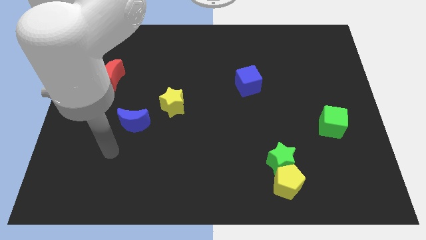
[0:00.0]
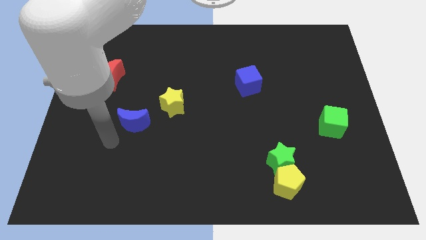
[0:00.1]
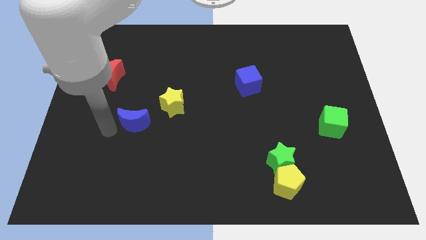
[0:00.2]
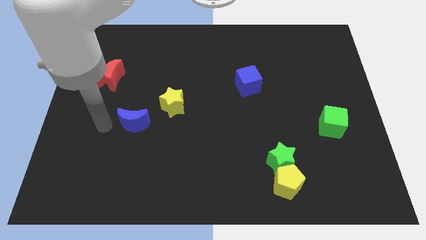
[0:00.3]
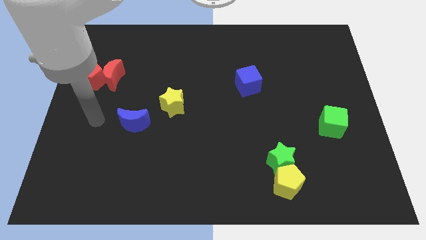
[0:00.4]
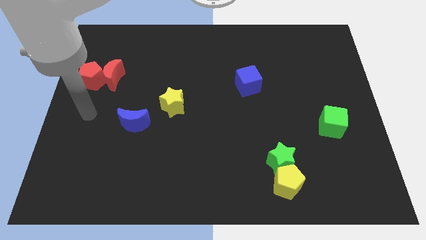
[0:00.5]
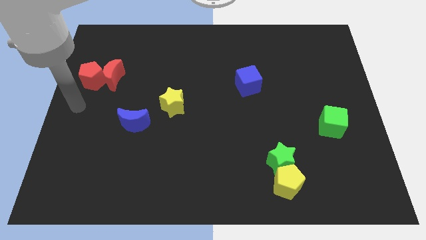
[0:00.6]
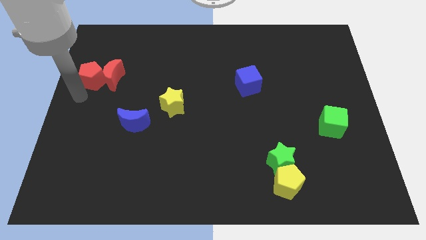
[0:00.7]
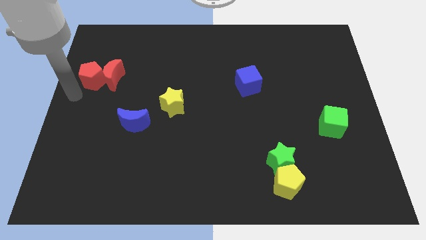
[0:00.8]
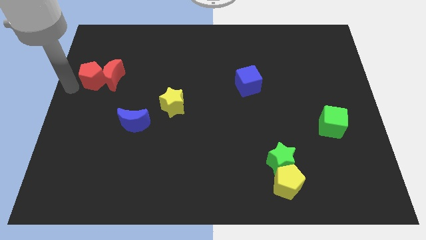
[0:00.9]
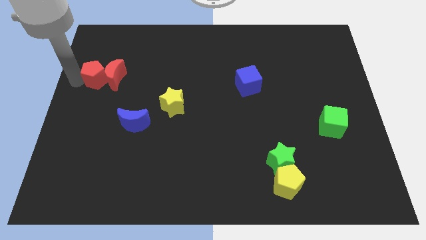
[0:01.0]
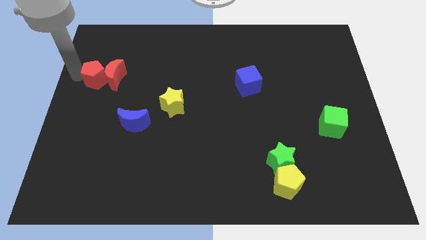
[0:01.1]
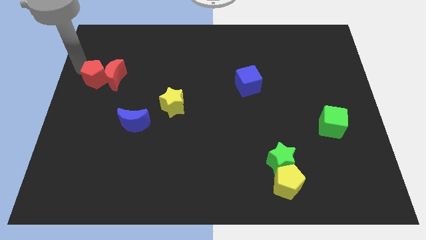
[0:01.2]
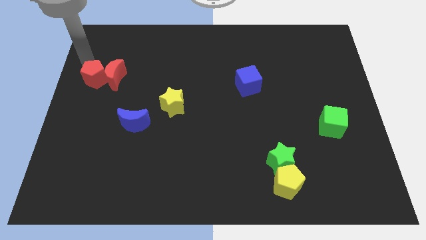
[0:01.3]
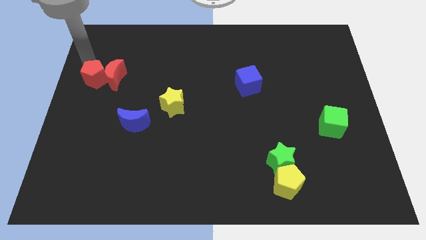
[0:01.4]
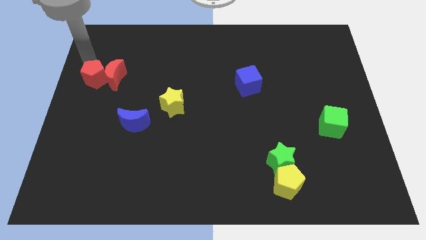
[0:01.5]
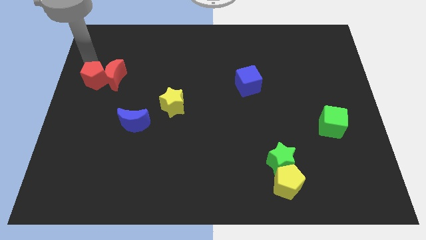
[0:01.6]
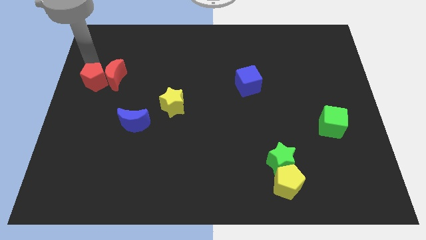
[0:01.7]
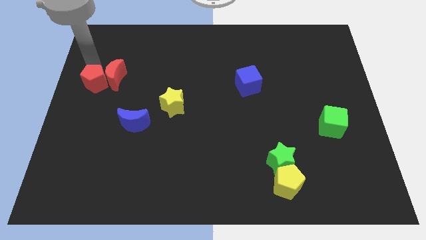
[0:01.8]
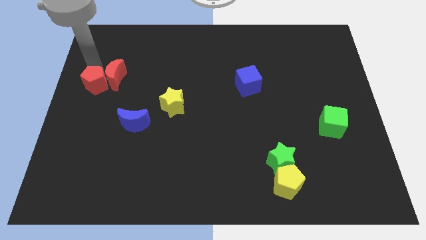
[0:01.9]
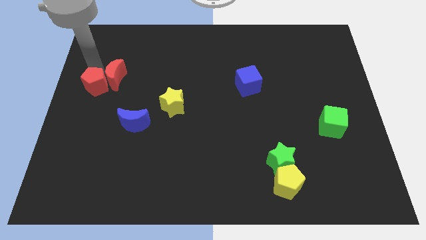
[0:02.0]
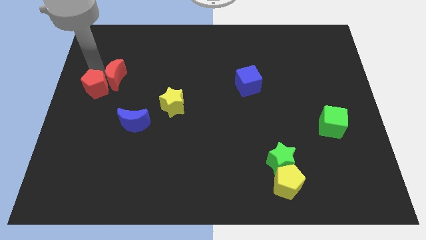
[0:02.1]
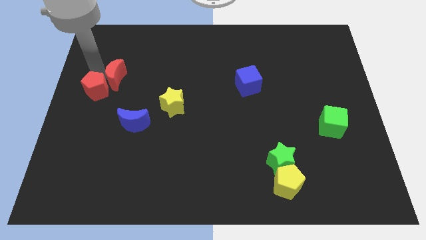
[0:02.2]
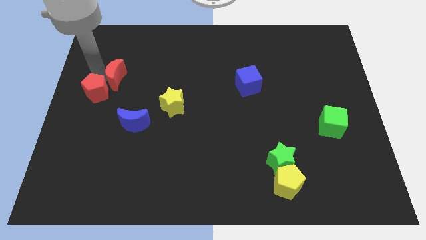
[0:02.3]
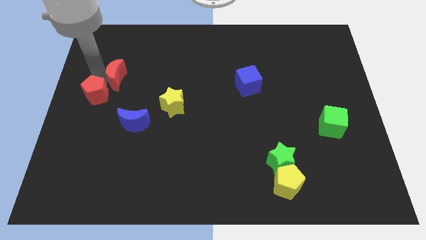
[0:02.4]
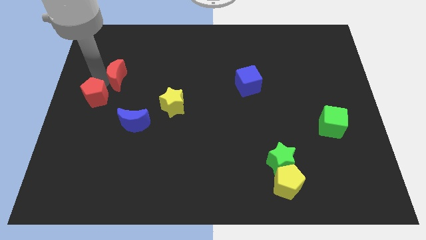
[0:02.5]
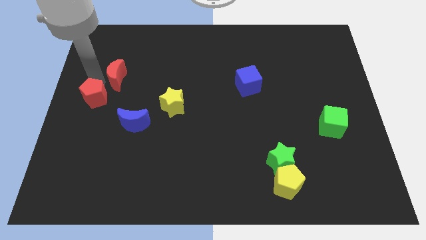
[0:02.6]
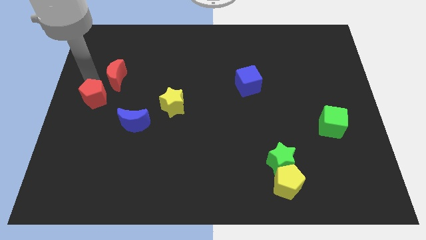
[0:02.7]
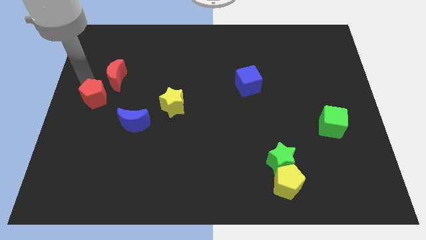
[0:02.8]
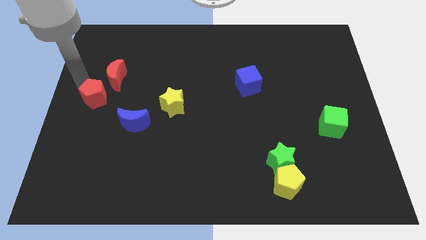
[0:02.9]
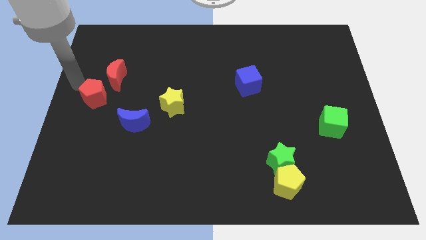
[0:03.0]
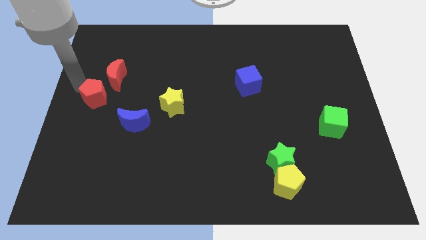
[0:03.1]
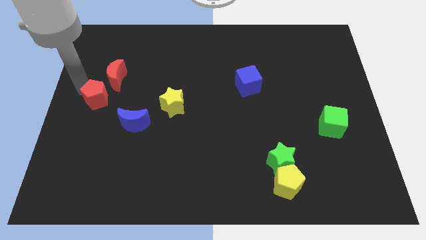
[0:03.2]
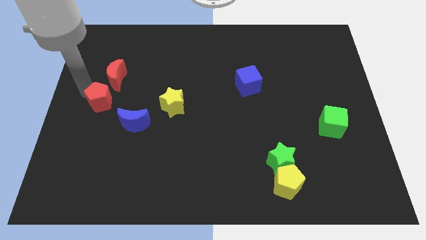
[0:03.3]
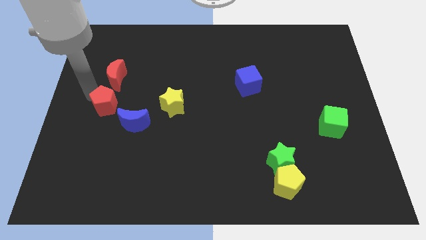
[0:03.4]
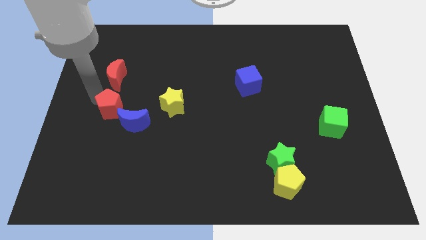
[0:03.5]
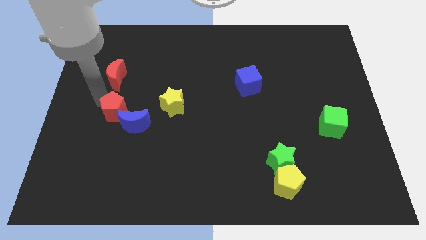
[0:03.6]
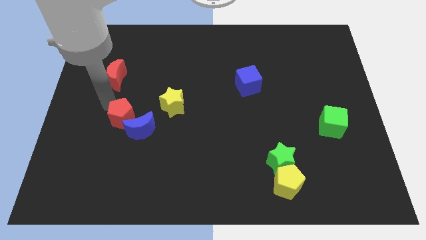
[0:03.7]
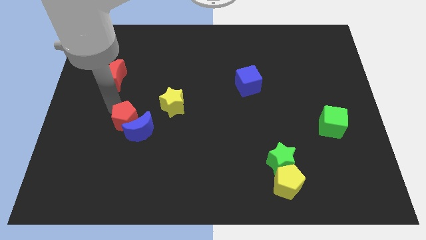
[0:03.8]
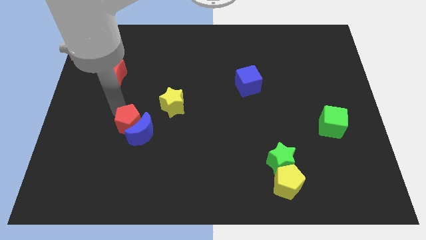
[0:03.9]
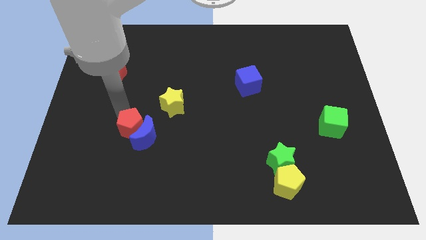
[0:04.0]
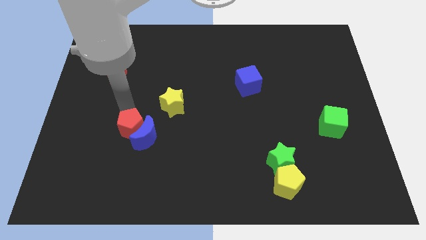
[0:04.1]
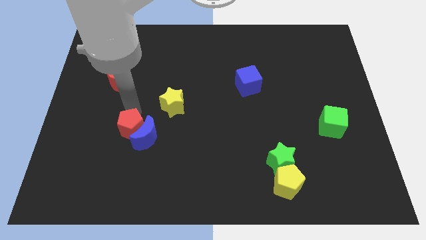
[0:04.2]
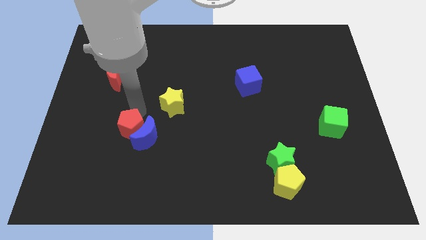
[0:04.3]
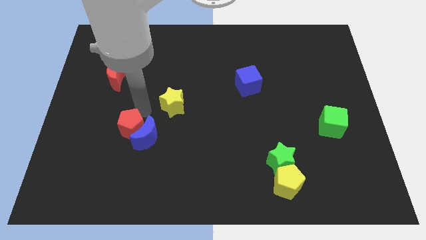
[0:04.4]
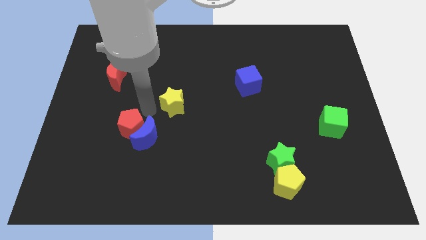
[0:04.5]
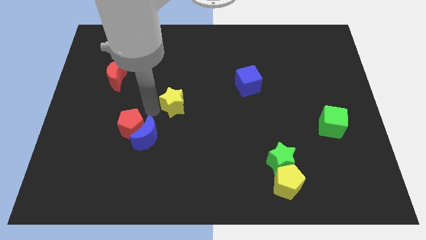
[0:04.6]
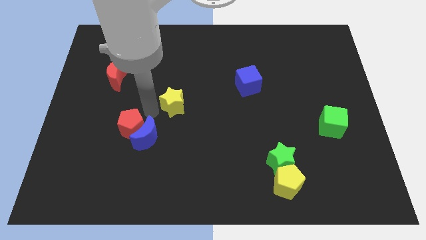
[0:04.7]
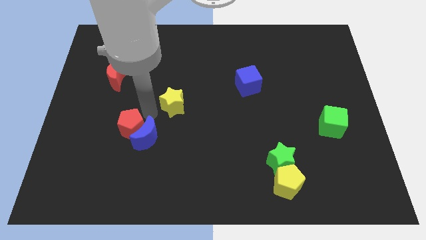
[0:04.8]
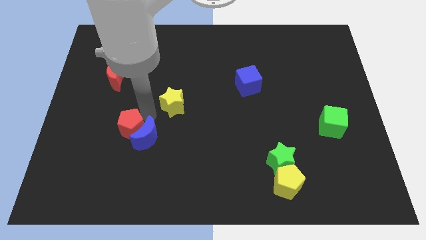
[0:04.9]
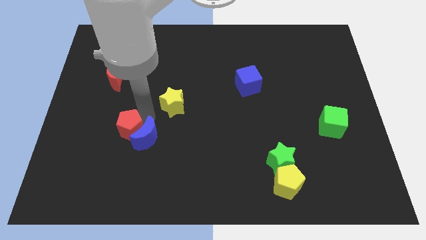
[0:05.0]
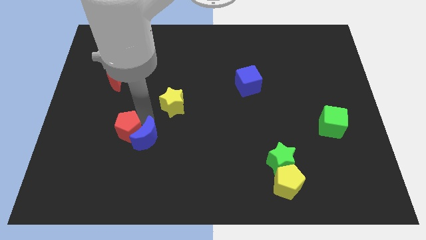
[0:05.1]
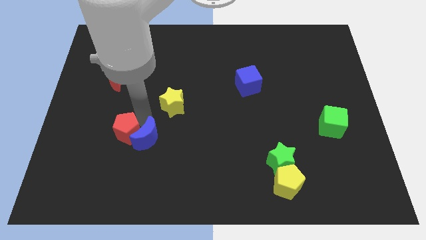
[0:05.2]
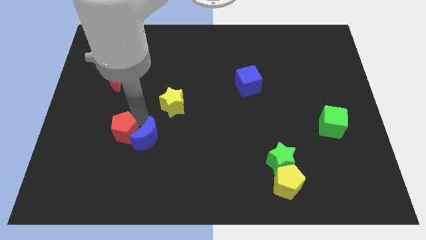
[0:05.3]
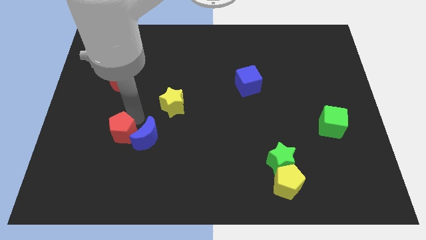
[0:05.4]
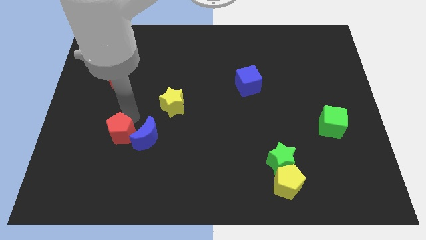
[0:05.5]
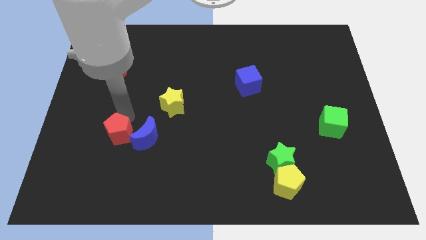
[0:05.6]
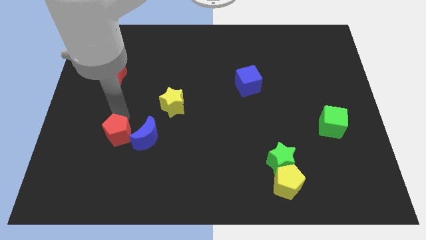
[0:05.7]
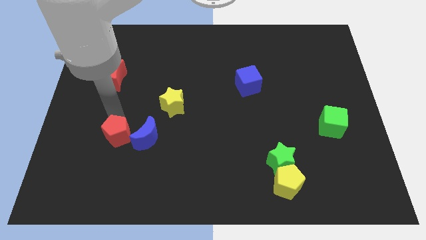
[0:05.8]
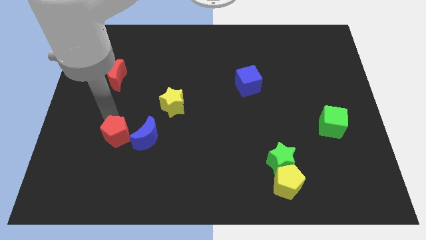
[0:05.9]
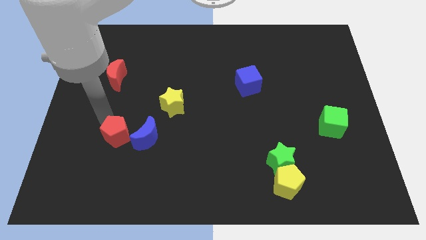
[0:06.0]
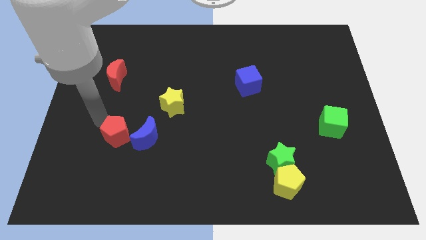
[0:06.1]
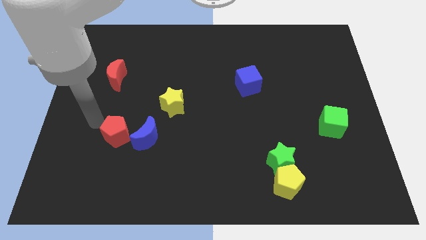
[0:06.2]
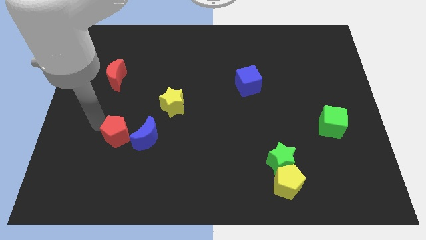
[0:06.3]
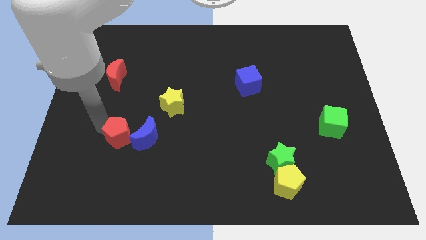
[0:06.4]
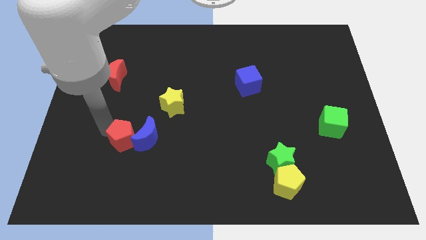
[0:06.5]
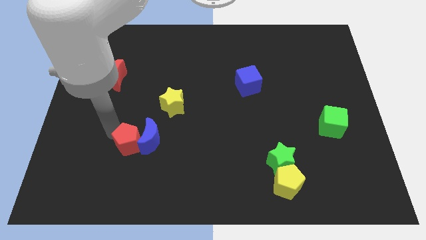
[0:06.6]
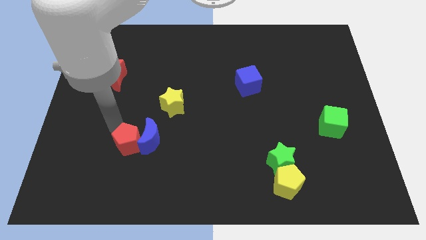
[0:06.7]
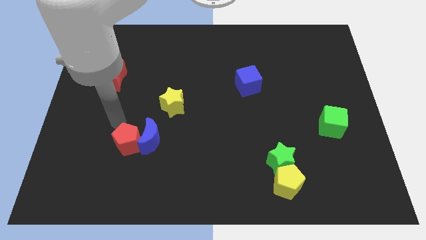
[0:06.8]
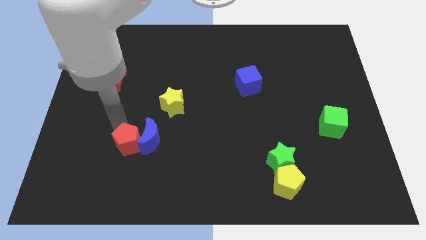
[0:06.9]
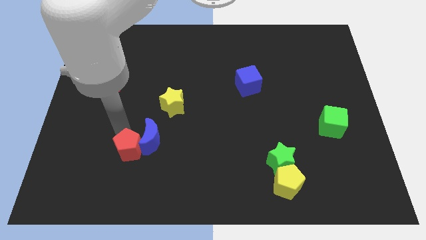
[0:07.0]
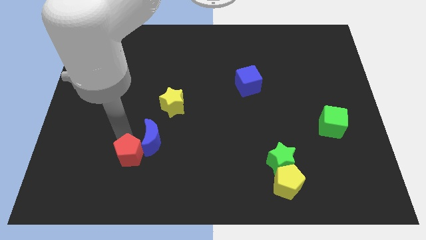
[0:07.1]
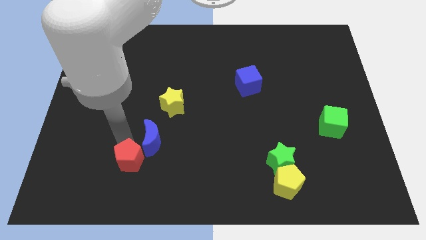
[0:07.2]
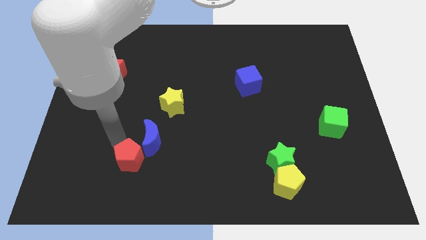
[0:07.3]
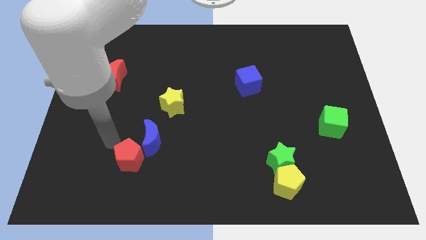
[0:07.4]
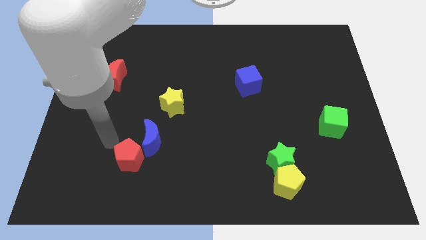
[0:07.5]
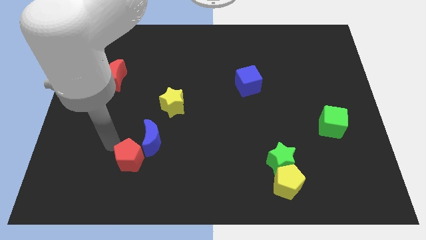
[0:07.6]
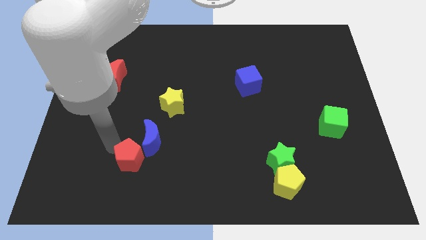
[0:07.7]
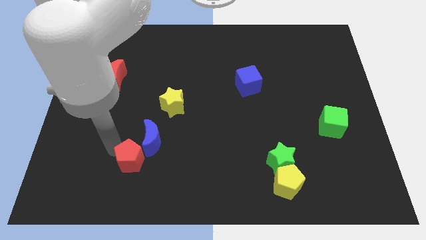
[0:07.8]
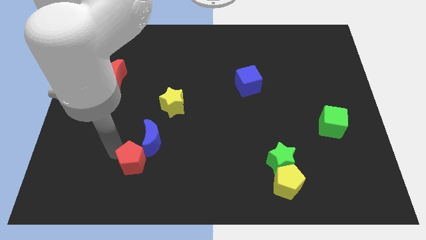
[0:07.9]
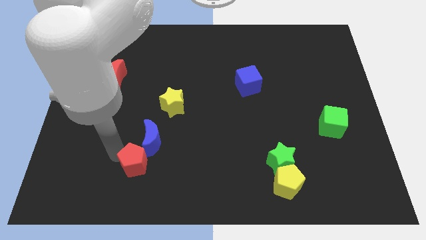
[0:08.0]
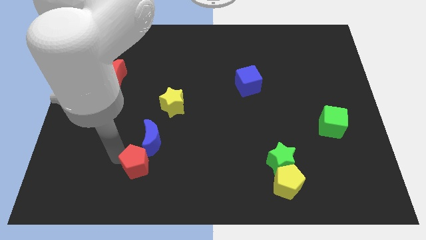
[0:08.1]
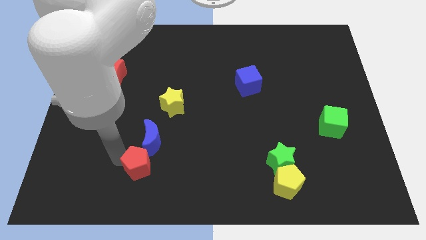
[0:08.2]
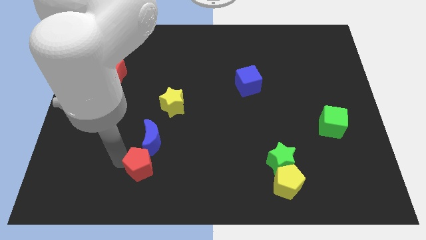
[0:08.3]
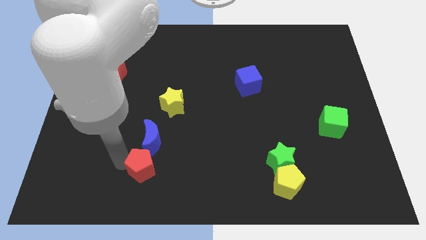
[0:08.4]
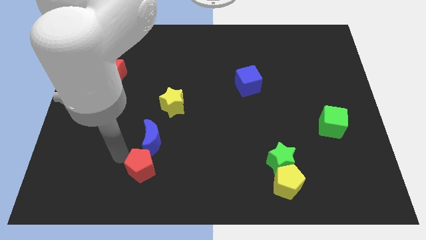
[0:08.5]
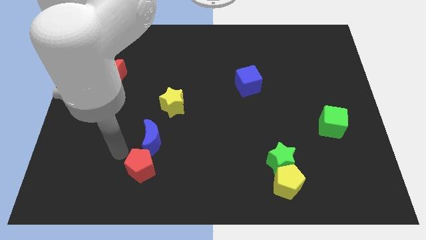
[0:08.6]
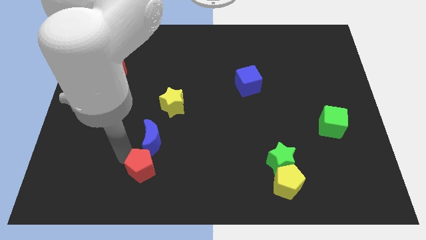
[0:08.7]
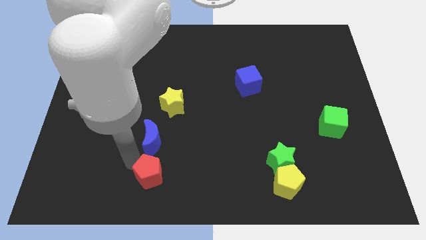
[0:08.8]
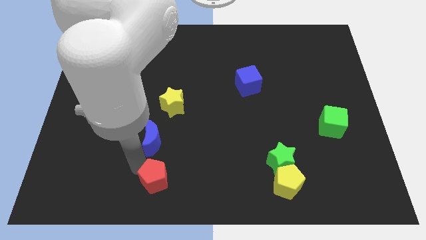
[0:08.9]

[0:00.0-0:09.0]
slide the red pentagon to the bottom side
